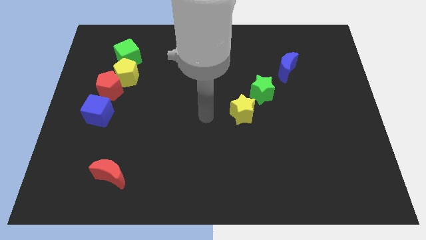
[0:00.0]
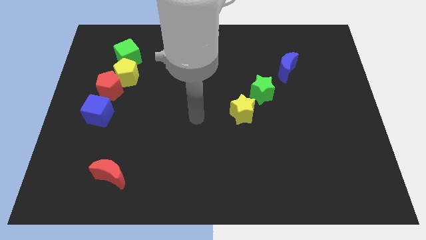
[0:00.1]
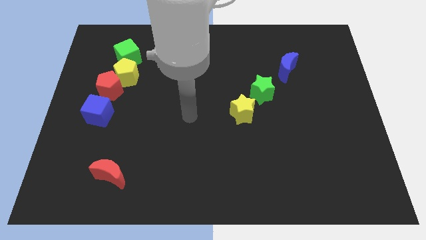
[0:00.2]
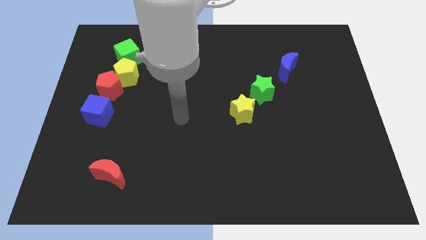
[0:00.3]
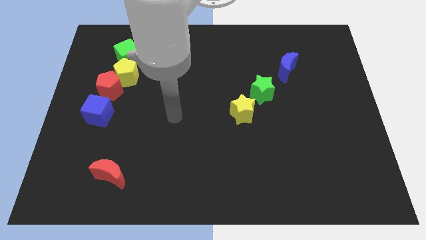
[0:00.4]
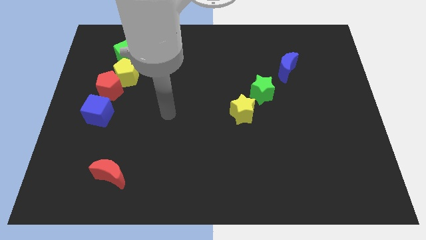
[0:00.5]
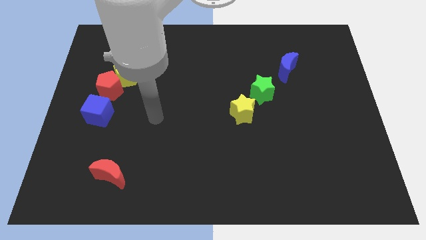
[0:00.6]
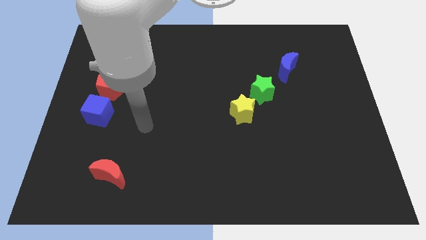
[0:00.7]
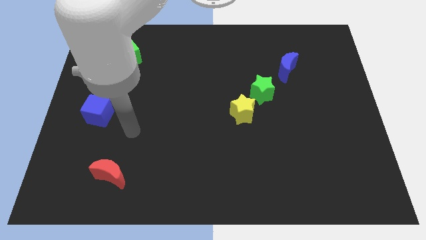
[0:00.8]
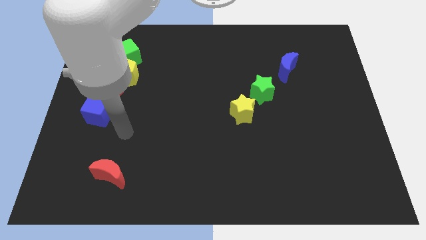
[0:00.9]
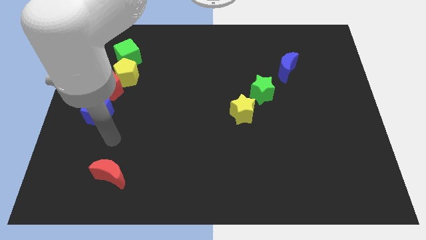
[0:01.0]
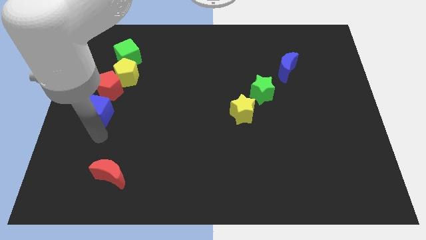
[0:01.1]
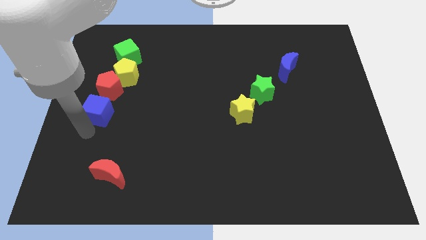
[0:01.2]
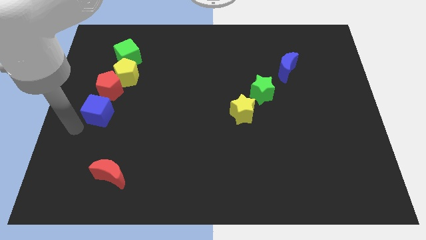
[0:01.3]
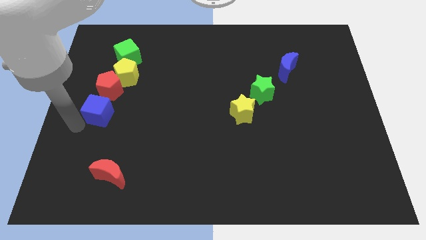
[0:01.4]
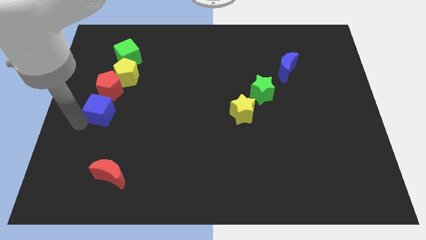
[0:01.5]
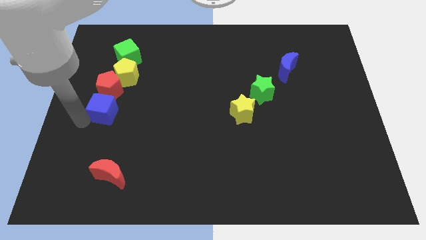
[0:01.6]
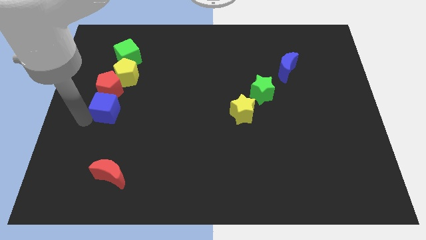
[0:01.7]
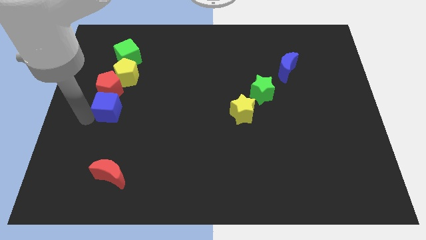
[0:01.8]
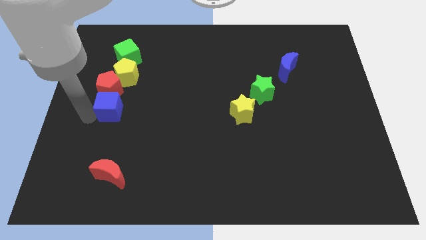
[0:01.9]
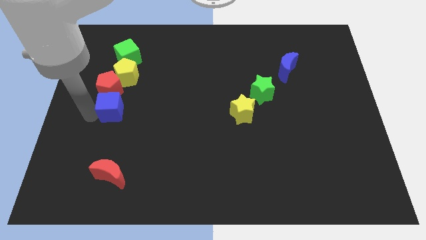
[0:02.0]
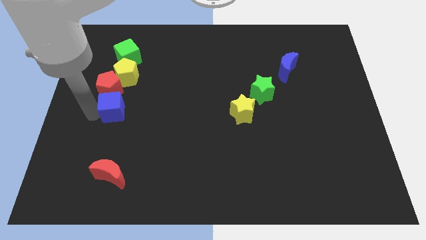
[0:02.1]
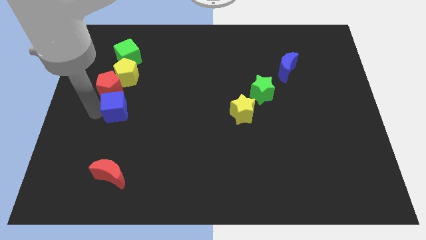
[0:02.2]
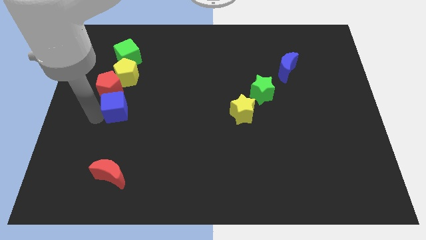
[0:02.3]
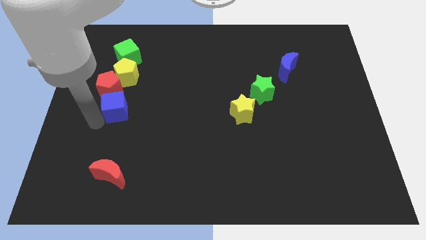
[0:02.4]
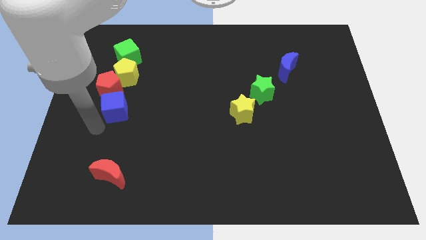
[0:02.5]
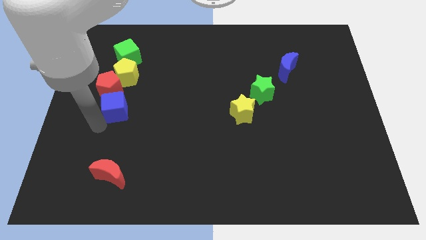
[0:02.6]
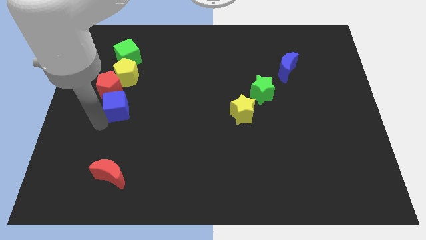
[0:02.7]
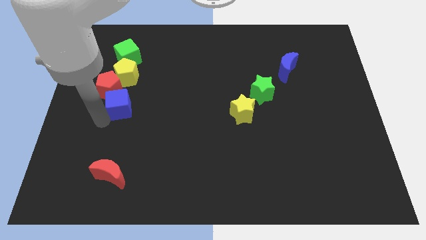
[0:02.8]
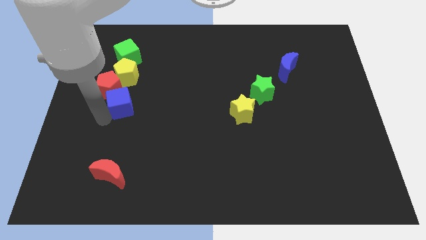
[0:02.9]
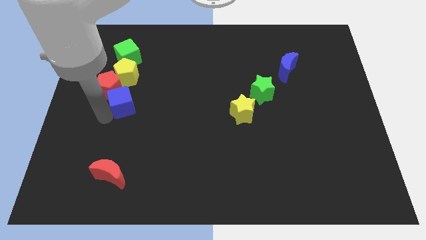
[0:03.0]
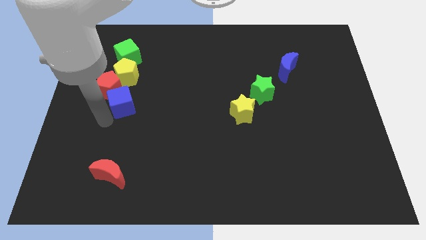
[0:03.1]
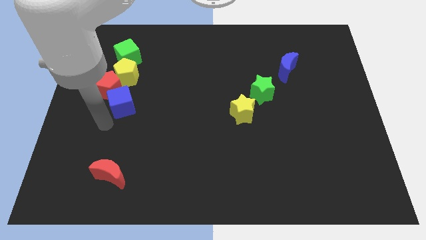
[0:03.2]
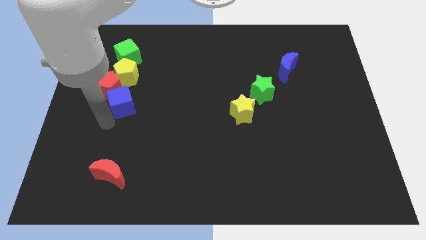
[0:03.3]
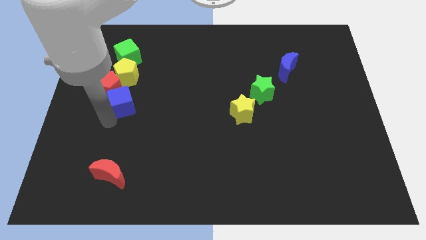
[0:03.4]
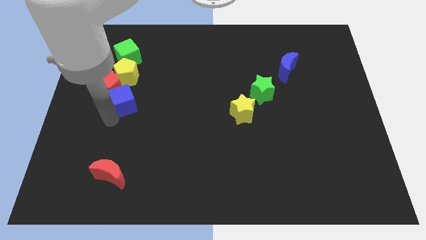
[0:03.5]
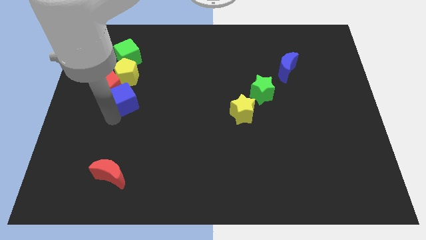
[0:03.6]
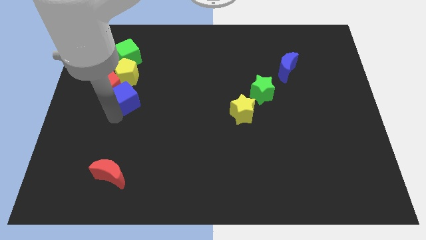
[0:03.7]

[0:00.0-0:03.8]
slide the blue cube somewhat up and then to the right

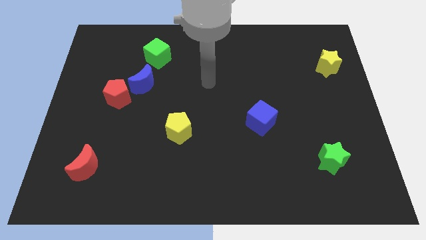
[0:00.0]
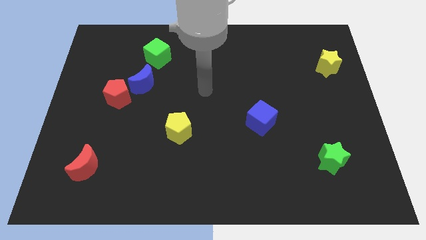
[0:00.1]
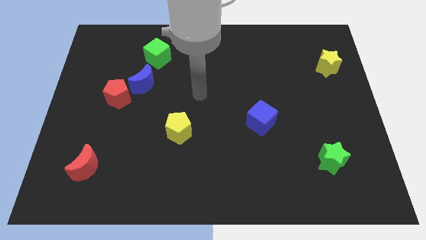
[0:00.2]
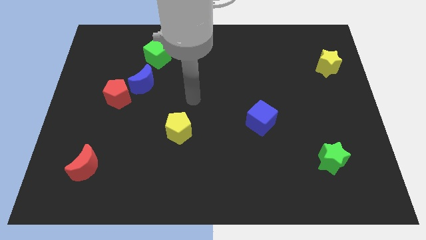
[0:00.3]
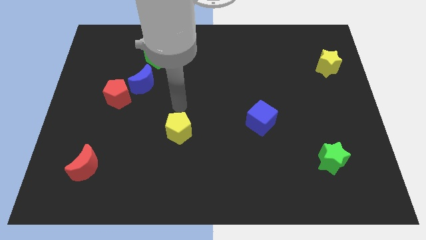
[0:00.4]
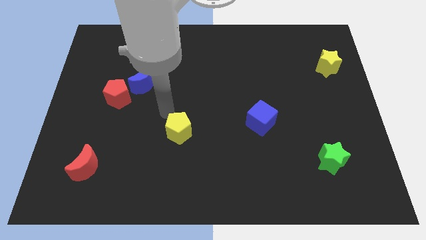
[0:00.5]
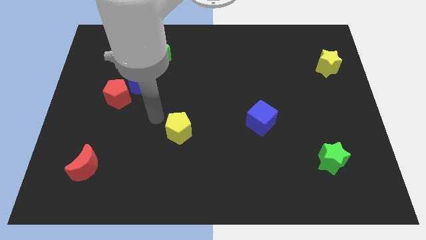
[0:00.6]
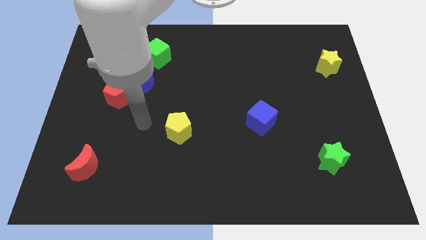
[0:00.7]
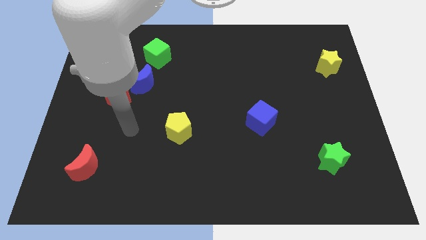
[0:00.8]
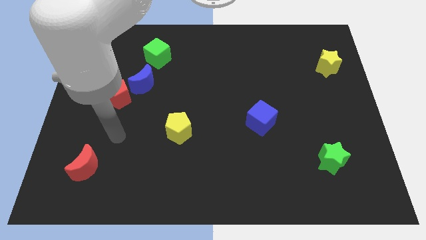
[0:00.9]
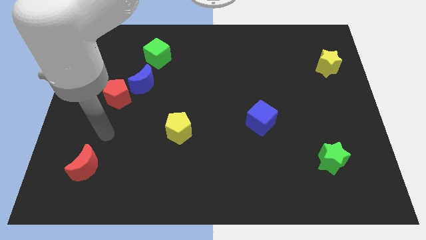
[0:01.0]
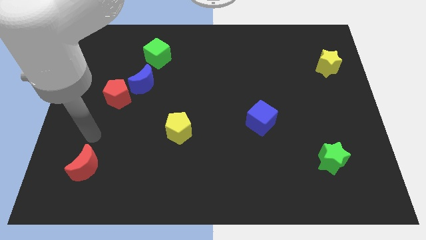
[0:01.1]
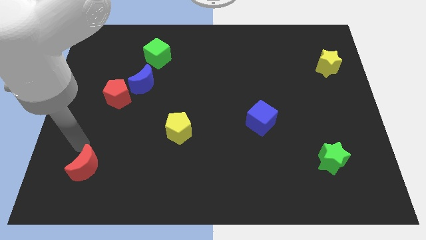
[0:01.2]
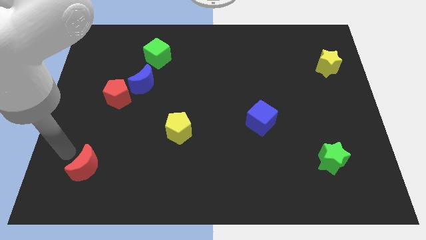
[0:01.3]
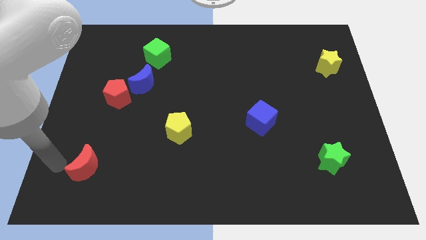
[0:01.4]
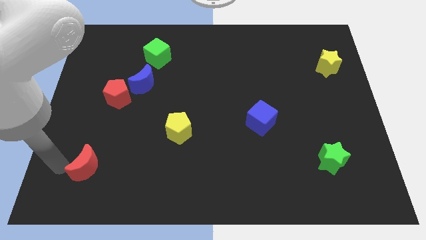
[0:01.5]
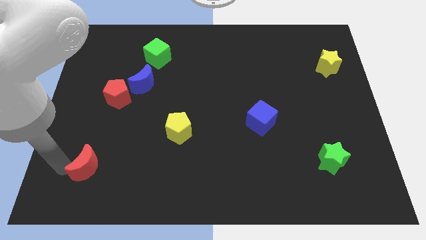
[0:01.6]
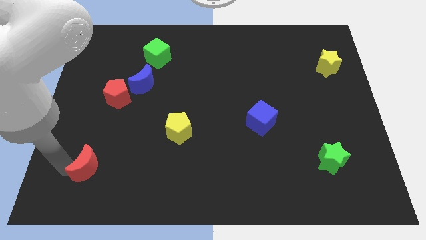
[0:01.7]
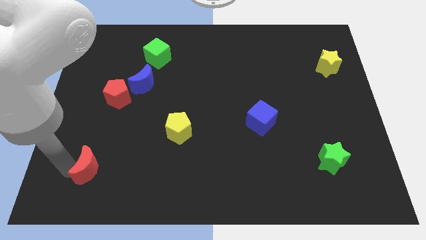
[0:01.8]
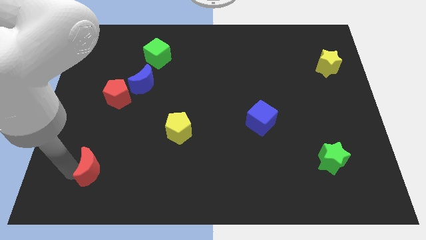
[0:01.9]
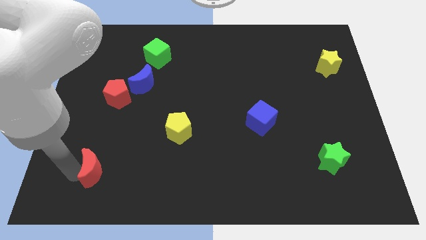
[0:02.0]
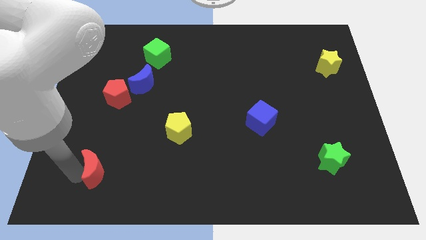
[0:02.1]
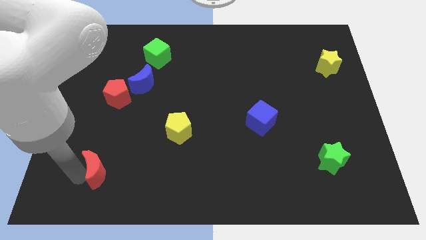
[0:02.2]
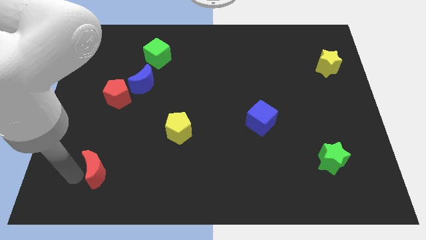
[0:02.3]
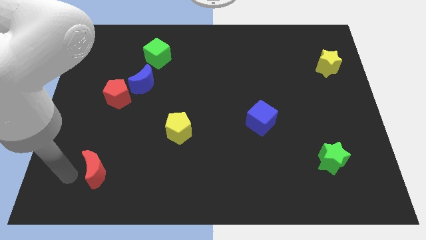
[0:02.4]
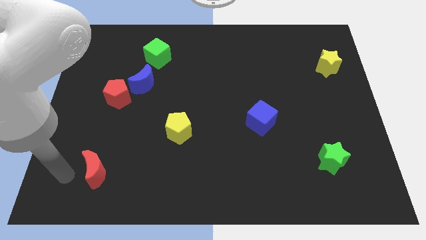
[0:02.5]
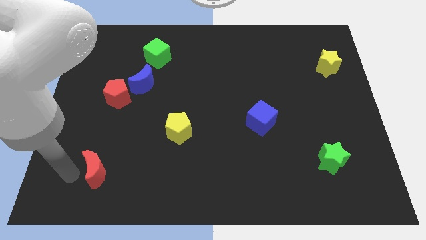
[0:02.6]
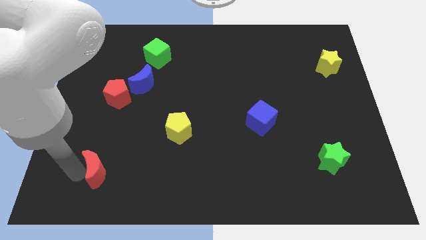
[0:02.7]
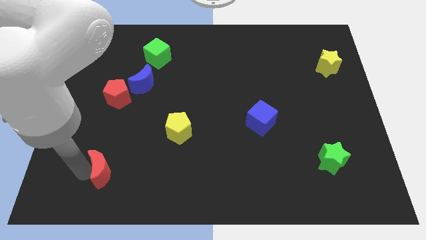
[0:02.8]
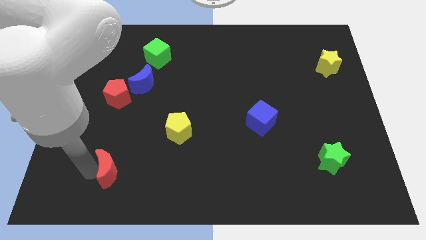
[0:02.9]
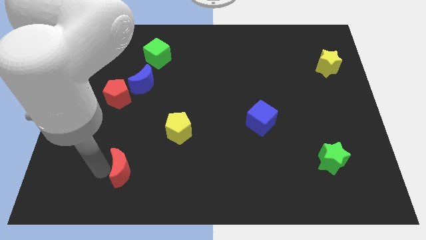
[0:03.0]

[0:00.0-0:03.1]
push the red moon somewhat right

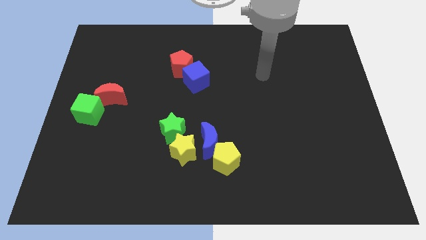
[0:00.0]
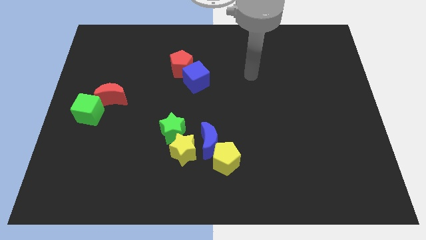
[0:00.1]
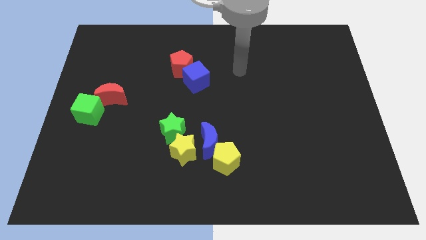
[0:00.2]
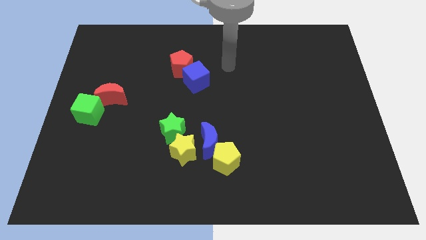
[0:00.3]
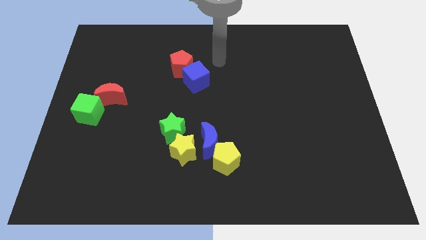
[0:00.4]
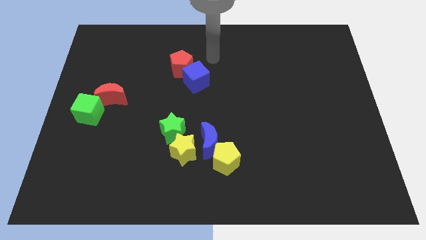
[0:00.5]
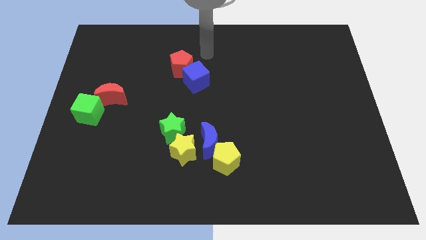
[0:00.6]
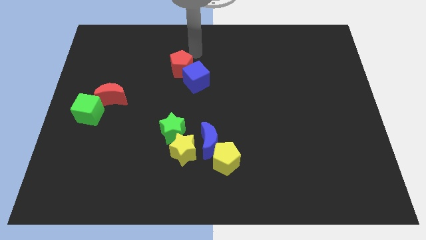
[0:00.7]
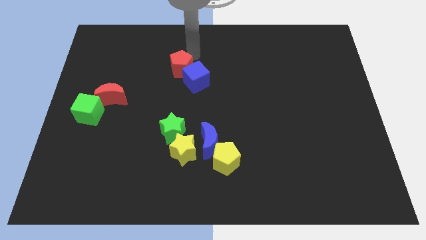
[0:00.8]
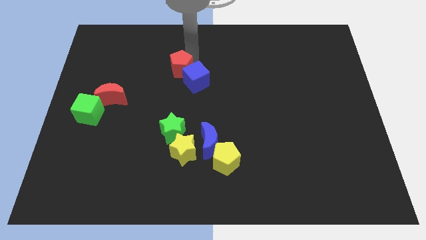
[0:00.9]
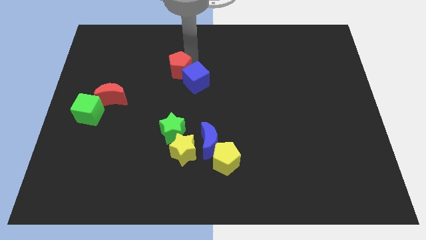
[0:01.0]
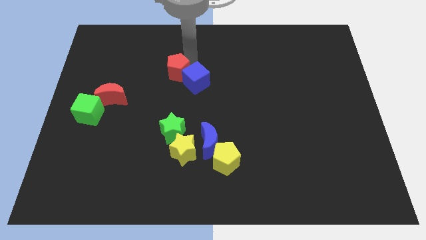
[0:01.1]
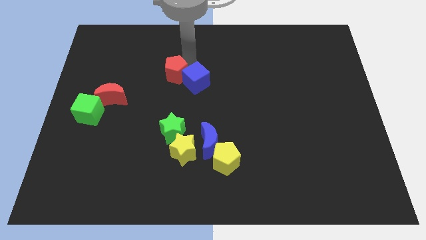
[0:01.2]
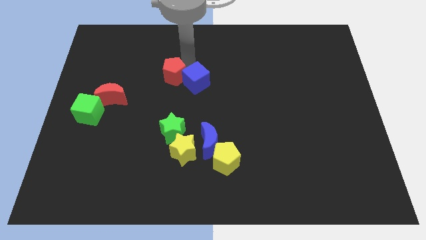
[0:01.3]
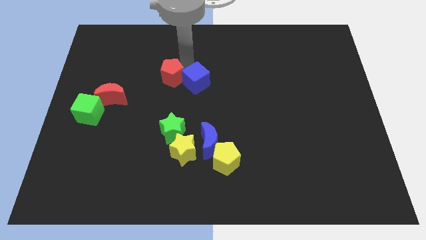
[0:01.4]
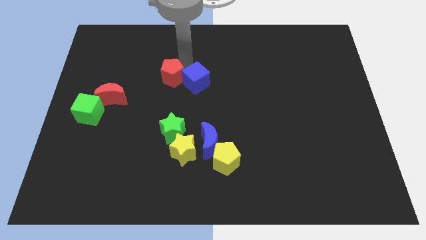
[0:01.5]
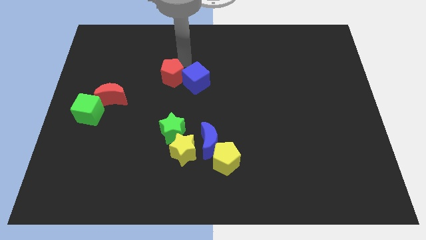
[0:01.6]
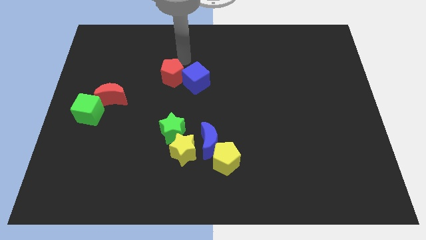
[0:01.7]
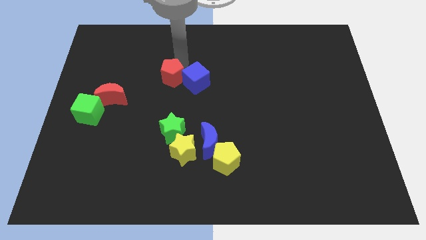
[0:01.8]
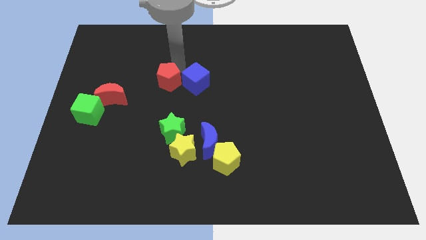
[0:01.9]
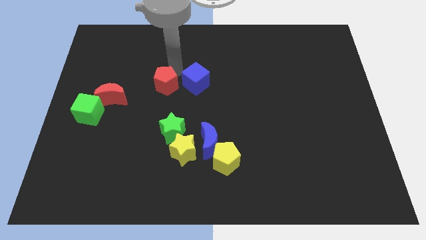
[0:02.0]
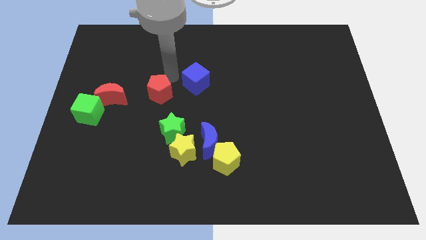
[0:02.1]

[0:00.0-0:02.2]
slightly push the red pentagon downwards and left diagonally
